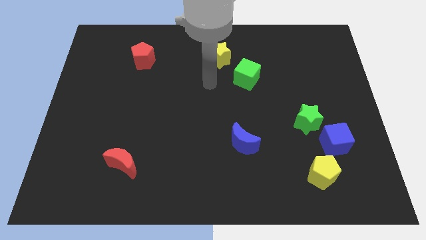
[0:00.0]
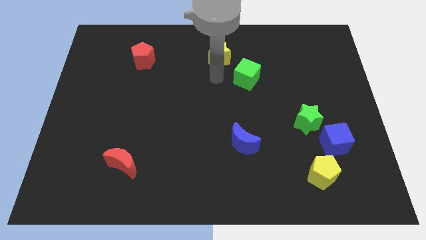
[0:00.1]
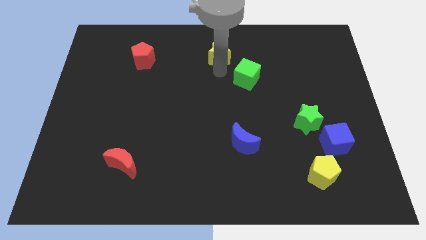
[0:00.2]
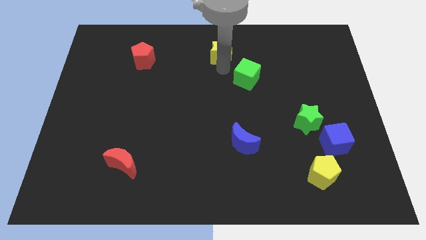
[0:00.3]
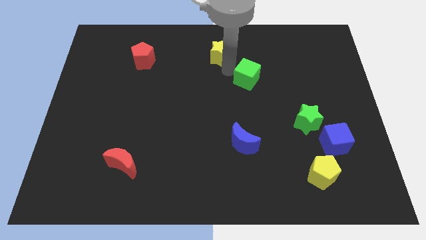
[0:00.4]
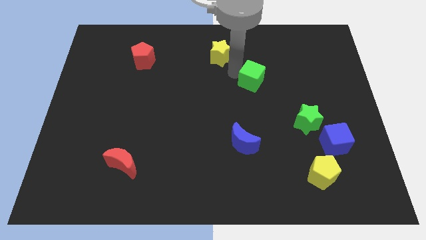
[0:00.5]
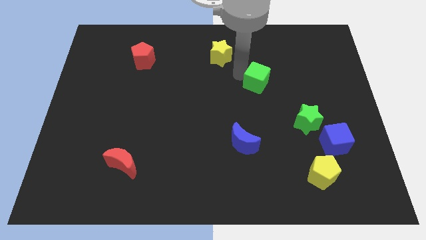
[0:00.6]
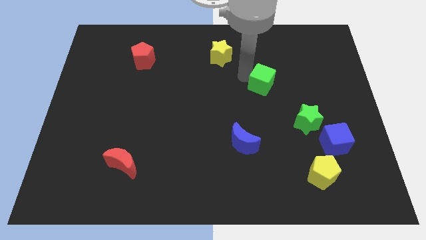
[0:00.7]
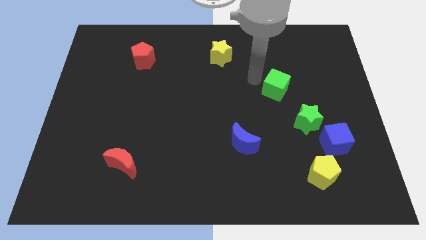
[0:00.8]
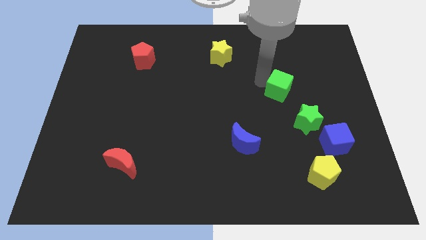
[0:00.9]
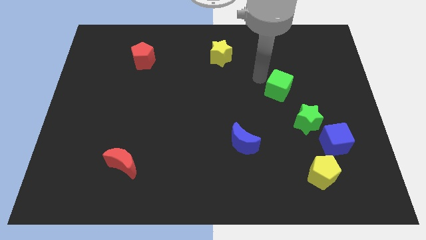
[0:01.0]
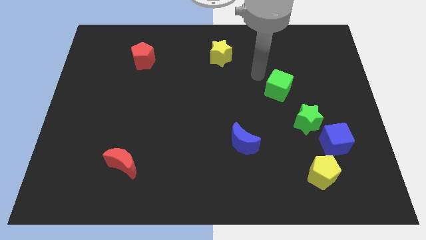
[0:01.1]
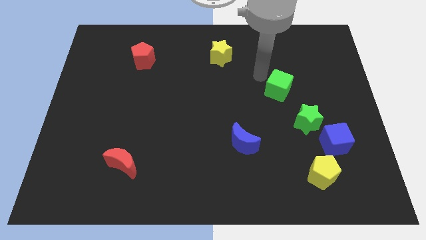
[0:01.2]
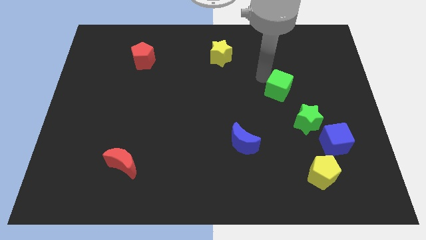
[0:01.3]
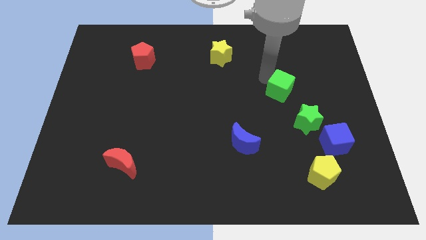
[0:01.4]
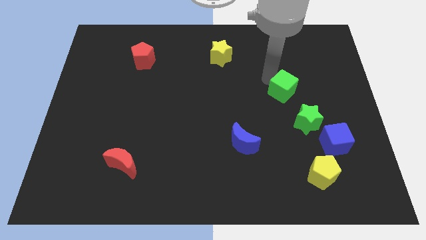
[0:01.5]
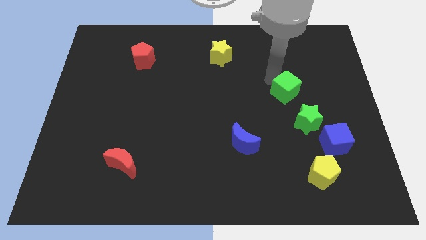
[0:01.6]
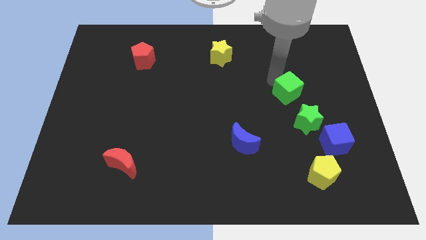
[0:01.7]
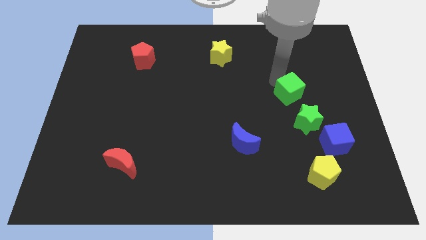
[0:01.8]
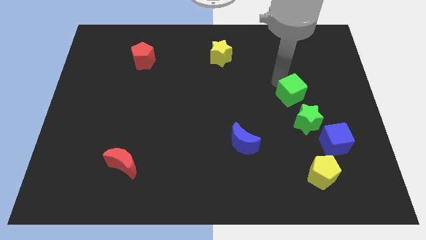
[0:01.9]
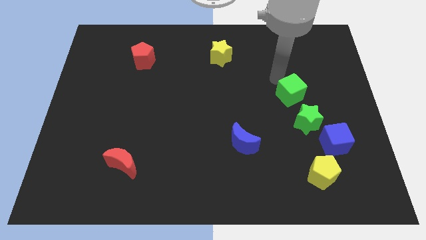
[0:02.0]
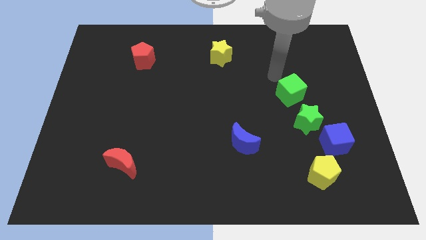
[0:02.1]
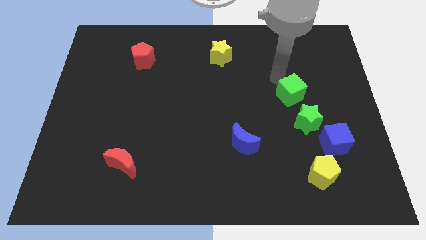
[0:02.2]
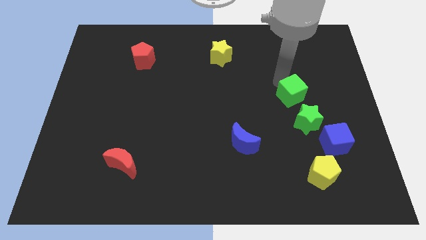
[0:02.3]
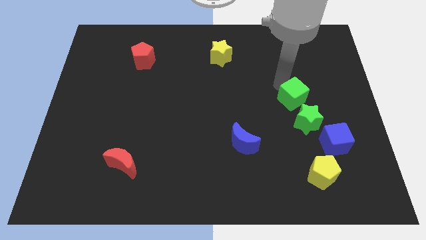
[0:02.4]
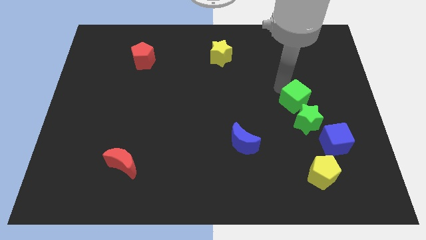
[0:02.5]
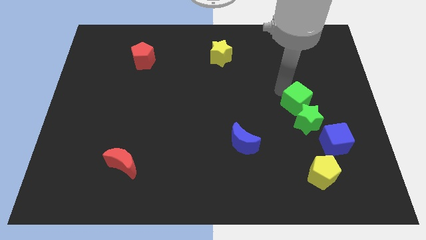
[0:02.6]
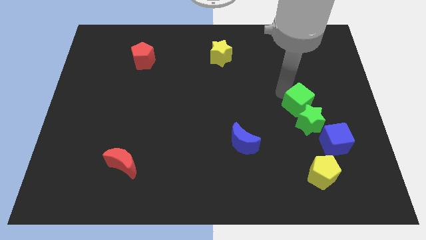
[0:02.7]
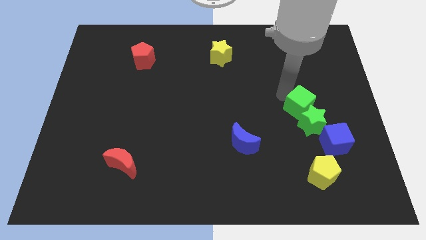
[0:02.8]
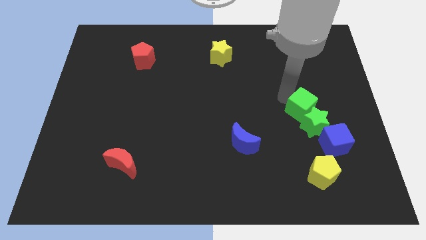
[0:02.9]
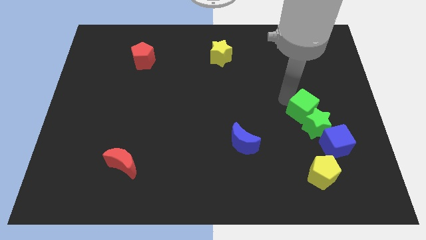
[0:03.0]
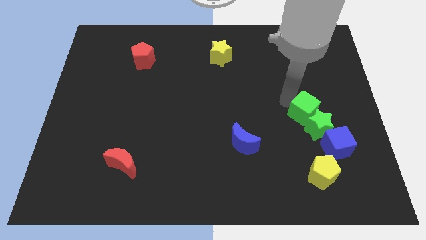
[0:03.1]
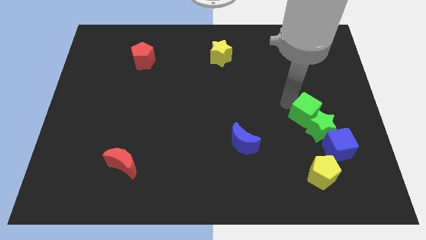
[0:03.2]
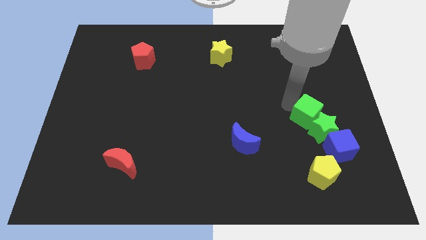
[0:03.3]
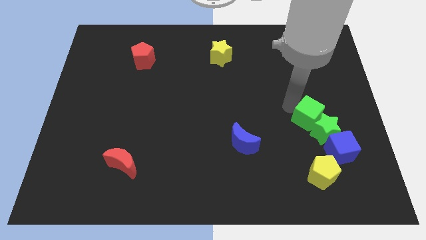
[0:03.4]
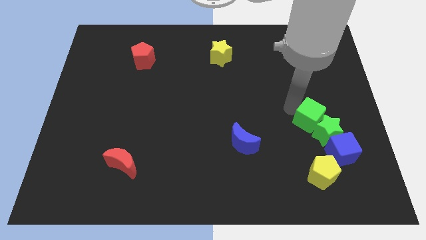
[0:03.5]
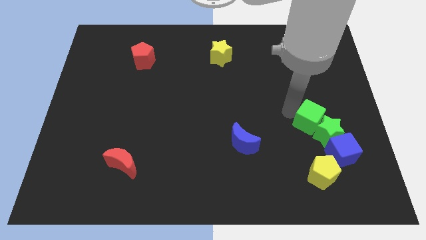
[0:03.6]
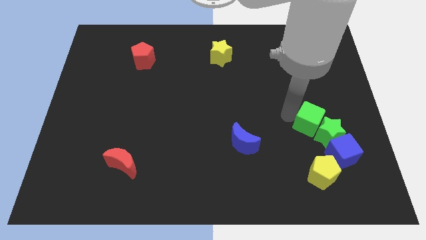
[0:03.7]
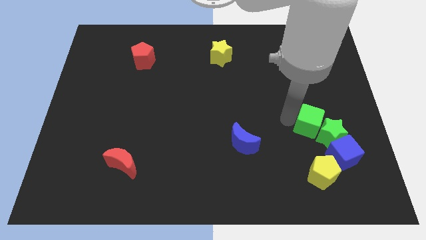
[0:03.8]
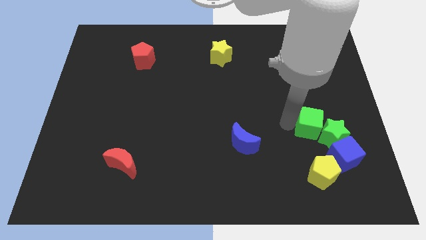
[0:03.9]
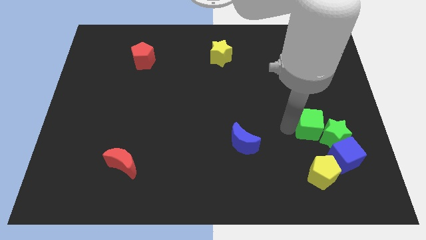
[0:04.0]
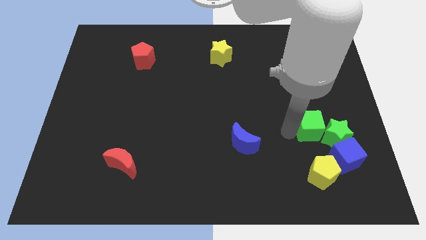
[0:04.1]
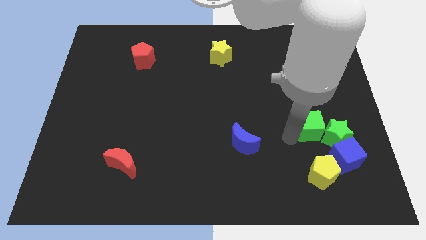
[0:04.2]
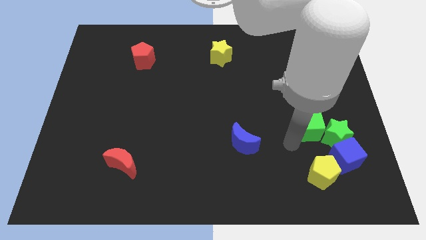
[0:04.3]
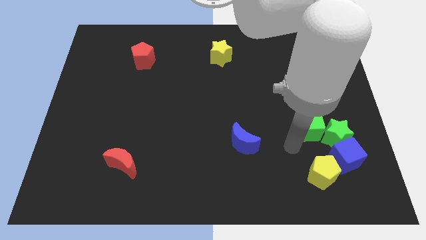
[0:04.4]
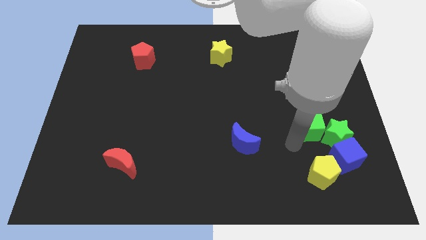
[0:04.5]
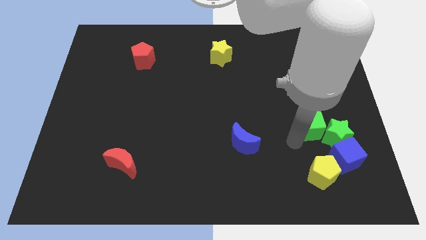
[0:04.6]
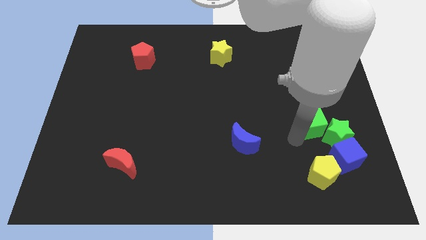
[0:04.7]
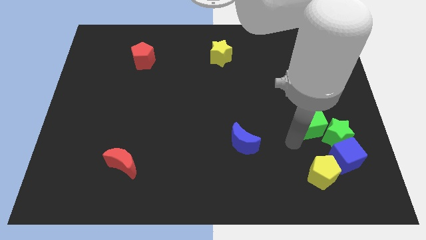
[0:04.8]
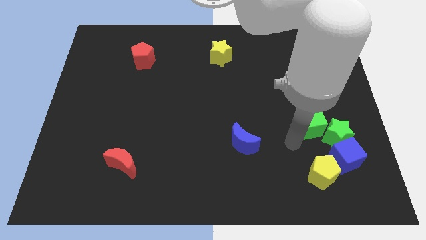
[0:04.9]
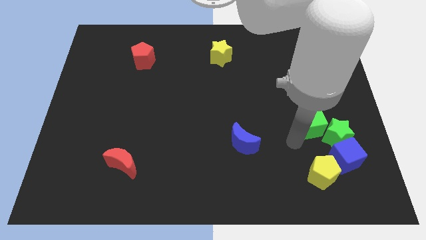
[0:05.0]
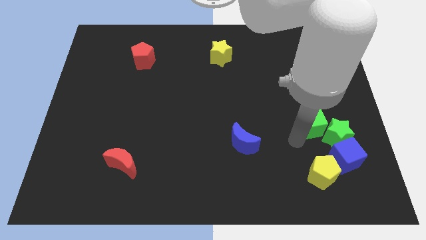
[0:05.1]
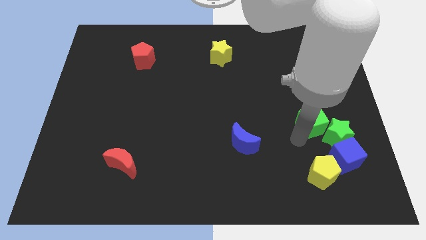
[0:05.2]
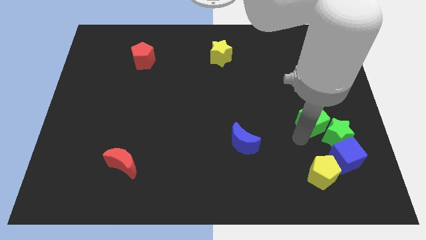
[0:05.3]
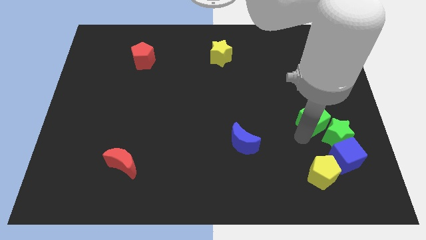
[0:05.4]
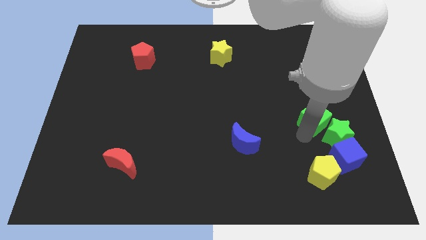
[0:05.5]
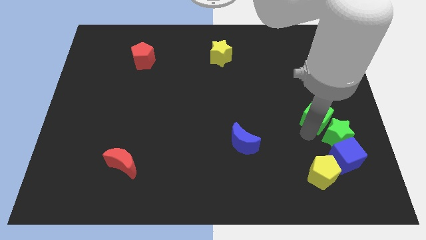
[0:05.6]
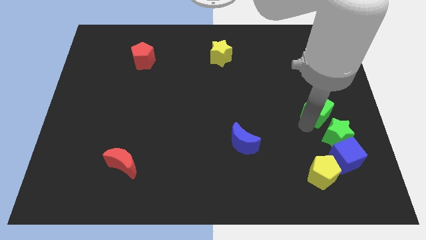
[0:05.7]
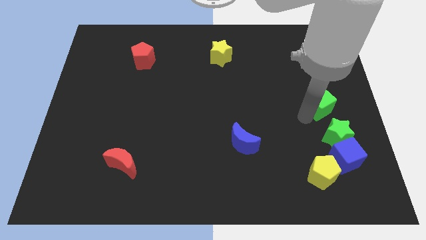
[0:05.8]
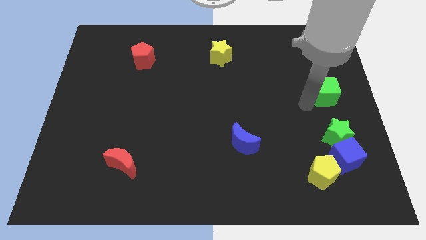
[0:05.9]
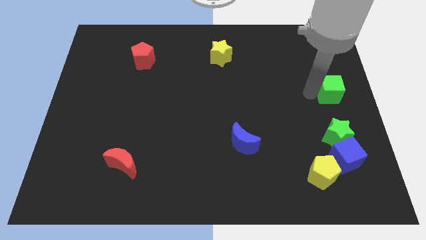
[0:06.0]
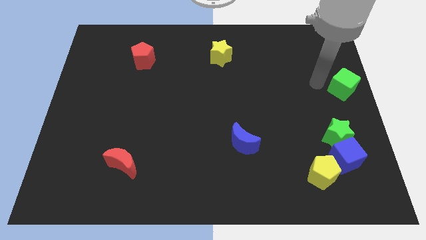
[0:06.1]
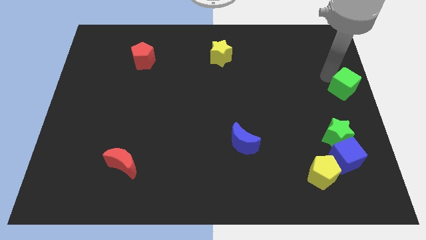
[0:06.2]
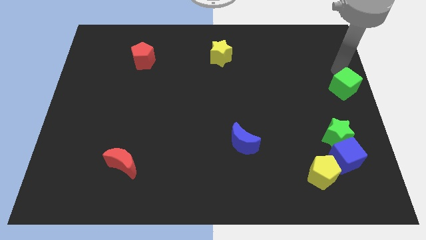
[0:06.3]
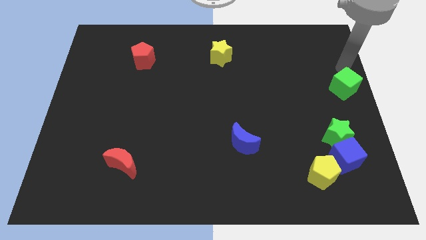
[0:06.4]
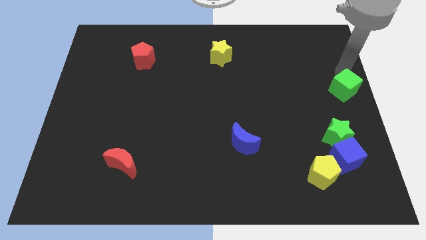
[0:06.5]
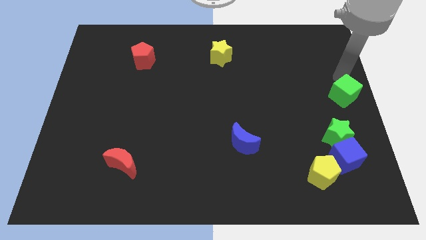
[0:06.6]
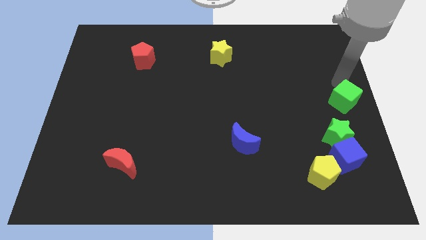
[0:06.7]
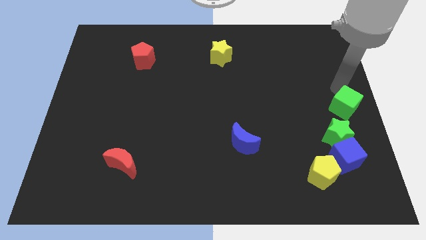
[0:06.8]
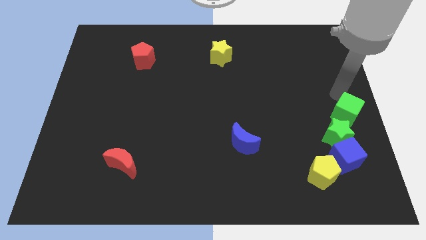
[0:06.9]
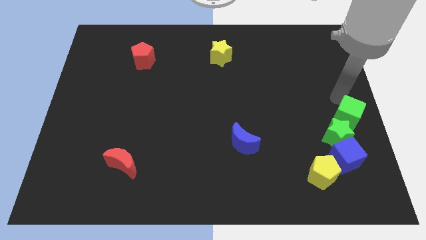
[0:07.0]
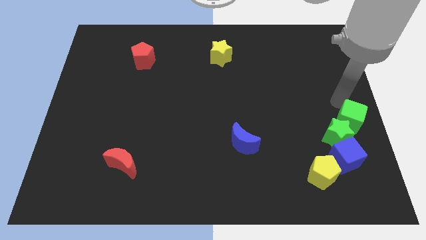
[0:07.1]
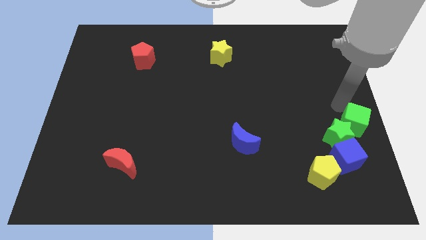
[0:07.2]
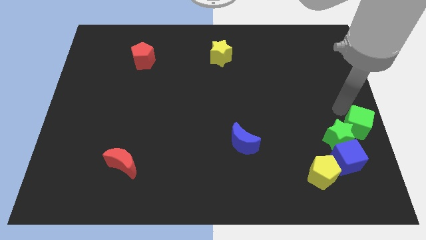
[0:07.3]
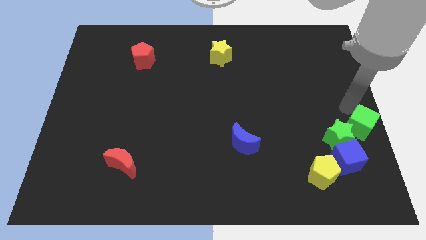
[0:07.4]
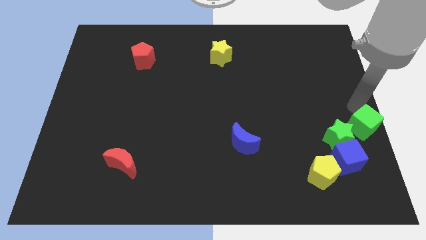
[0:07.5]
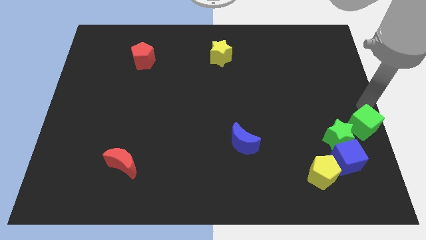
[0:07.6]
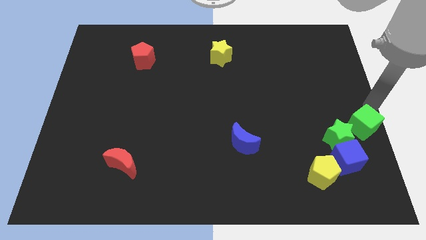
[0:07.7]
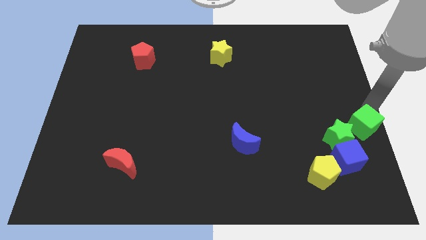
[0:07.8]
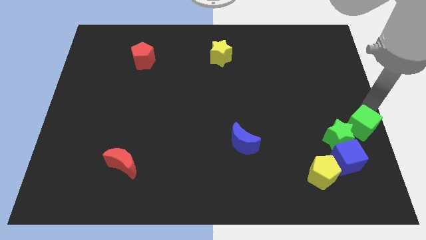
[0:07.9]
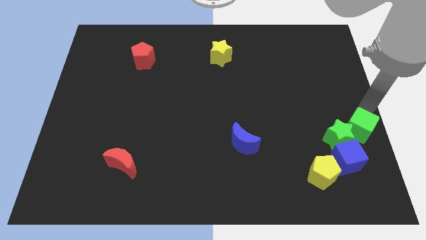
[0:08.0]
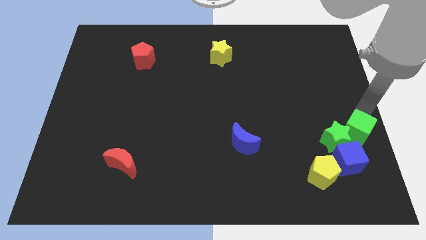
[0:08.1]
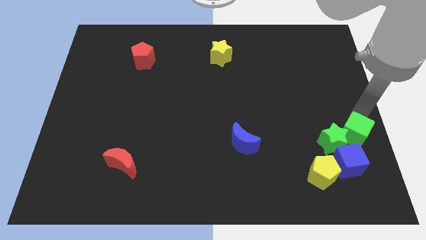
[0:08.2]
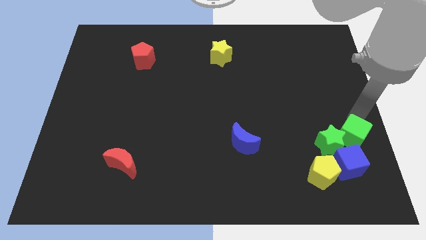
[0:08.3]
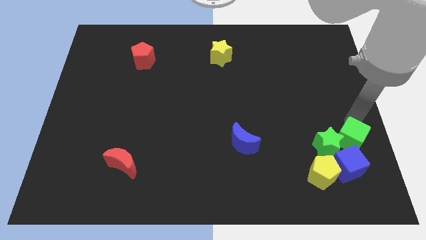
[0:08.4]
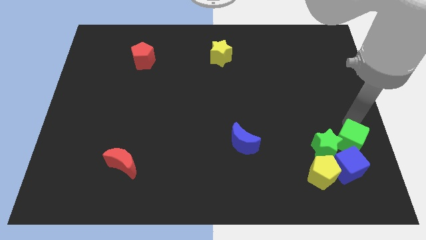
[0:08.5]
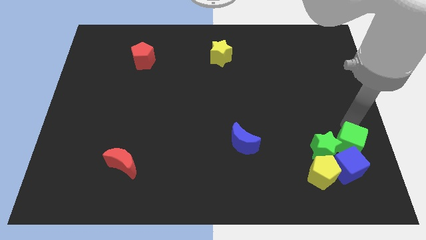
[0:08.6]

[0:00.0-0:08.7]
put the green cube towards the blue cube
